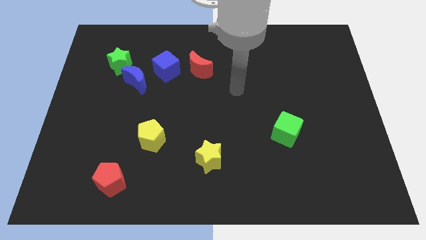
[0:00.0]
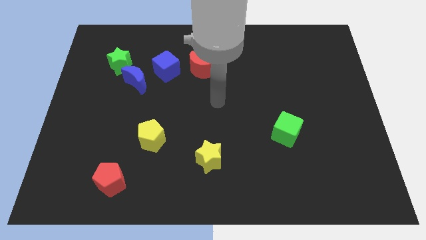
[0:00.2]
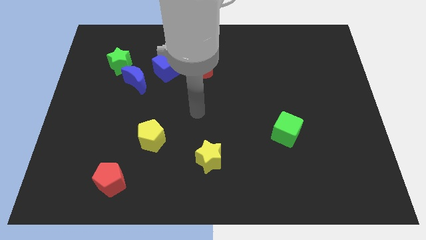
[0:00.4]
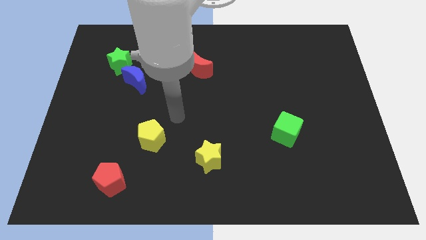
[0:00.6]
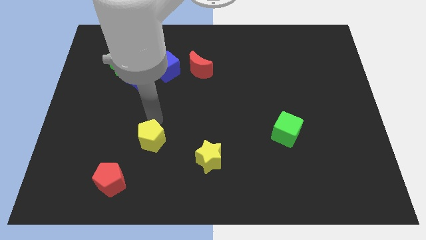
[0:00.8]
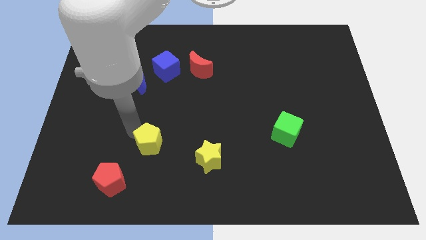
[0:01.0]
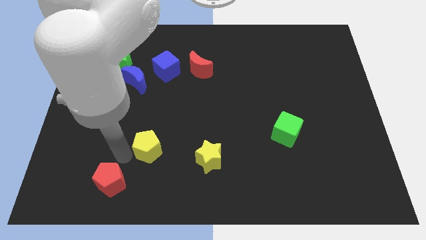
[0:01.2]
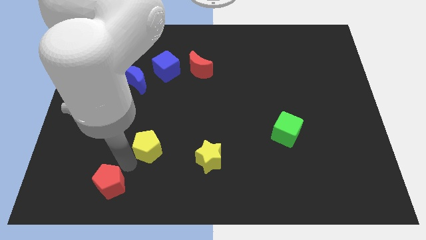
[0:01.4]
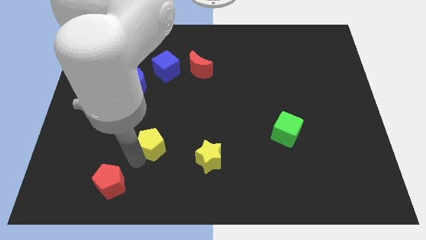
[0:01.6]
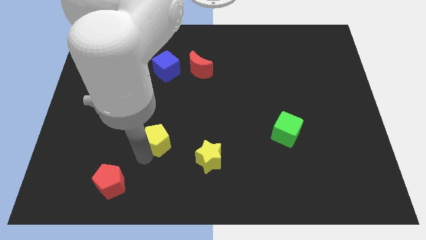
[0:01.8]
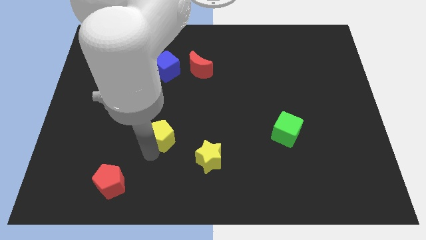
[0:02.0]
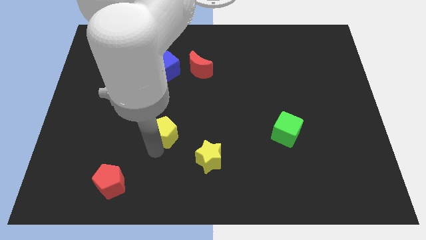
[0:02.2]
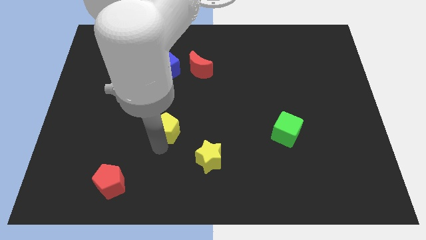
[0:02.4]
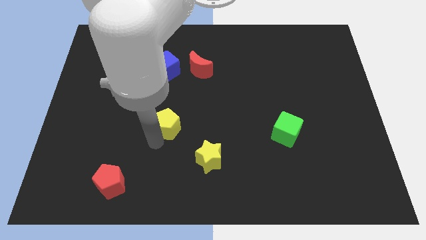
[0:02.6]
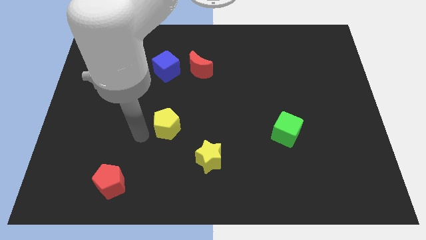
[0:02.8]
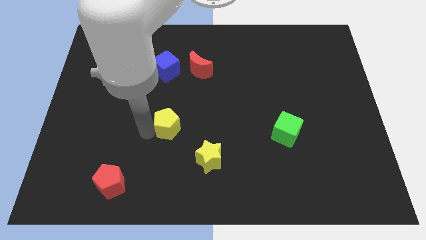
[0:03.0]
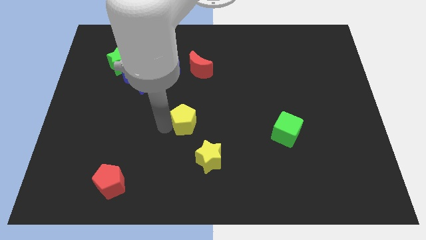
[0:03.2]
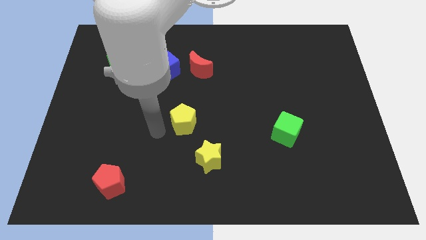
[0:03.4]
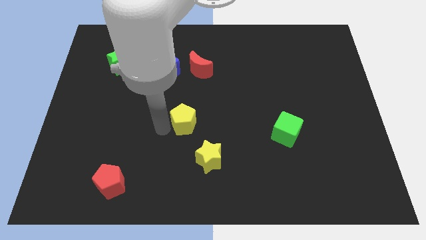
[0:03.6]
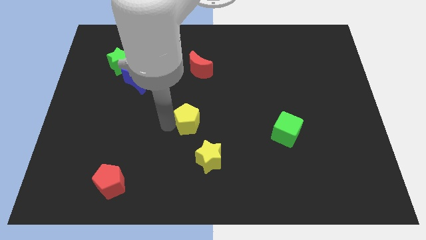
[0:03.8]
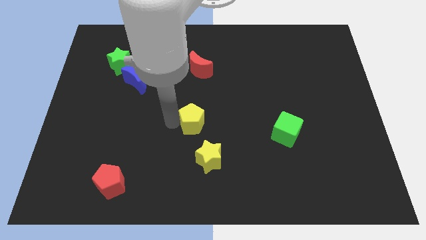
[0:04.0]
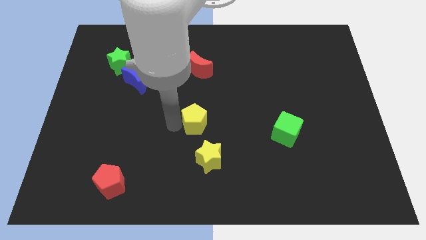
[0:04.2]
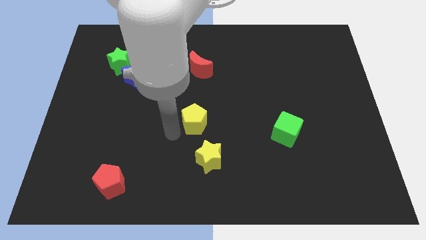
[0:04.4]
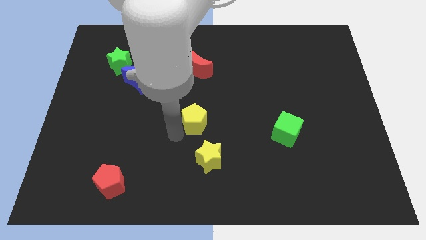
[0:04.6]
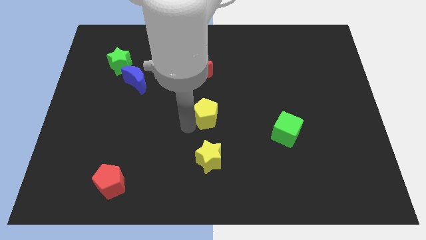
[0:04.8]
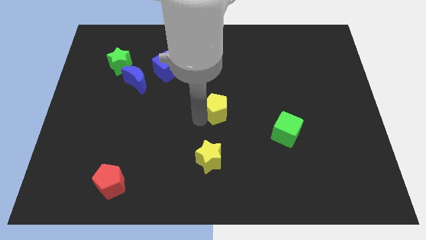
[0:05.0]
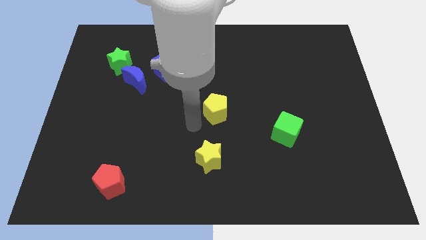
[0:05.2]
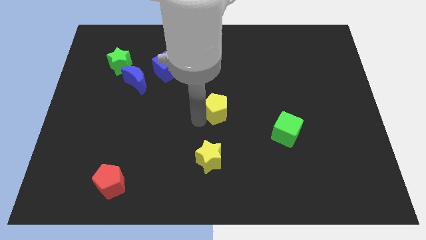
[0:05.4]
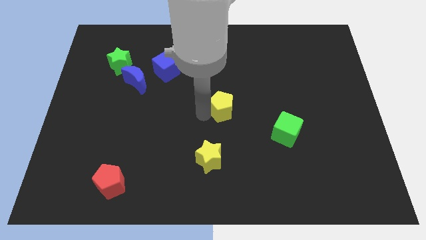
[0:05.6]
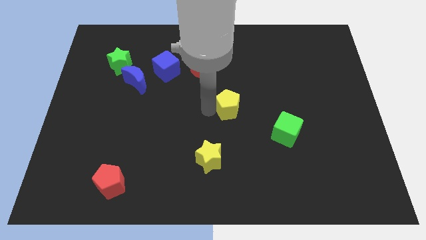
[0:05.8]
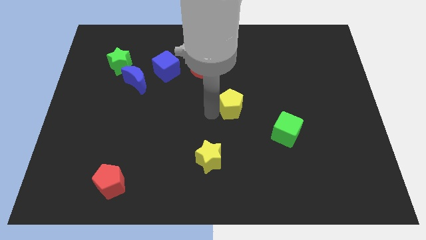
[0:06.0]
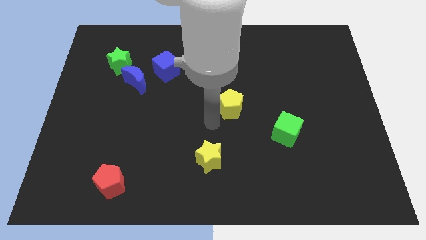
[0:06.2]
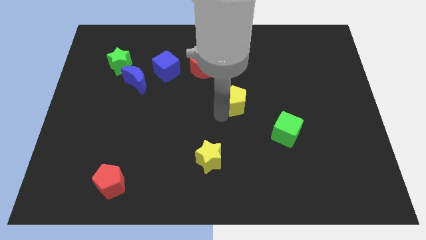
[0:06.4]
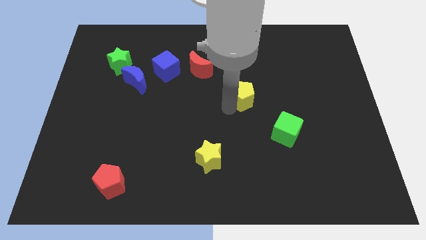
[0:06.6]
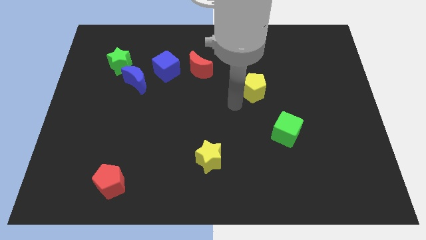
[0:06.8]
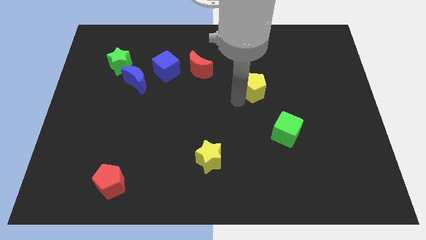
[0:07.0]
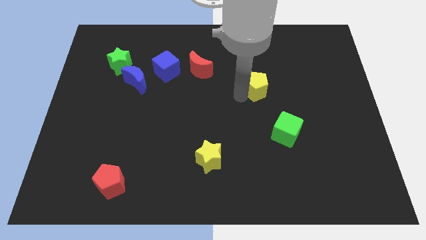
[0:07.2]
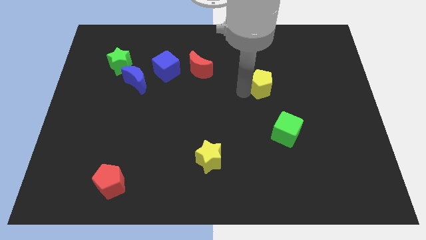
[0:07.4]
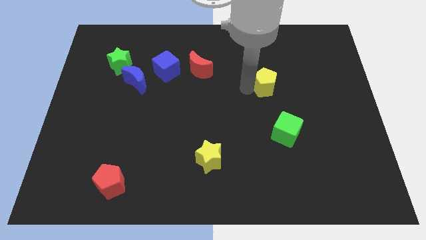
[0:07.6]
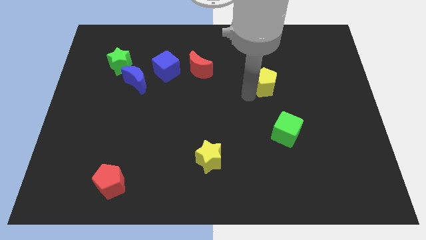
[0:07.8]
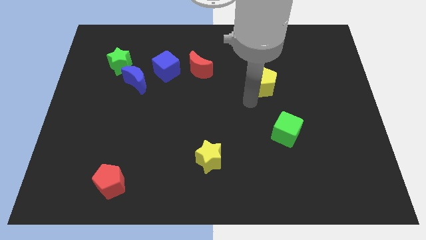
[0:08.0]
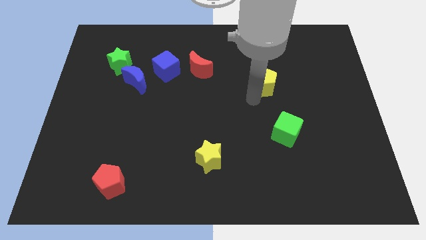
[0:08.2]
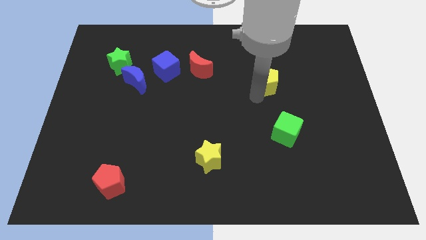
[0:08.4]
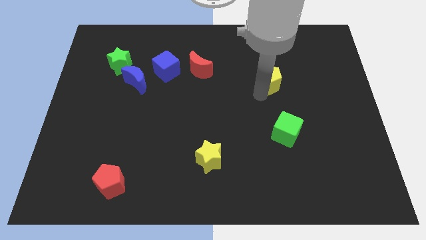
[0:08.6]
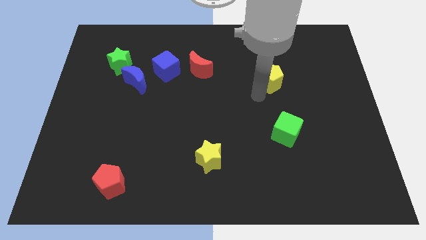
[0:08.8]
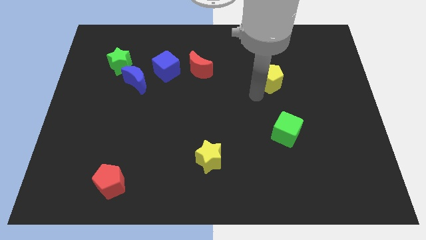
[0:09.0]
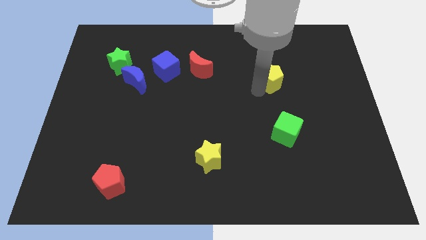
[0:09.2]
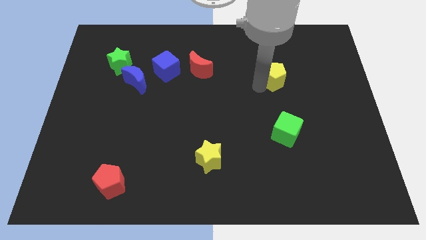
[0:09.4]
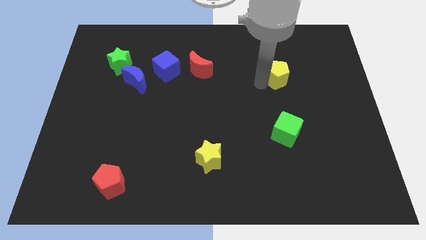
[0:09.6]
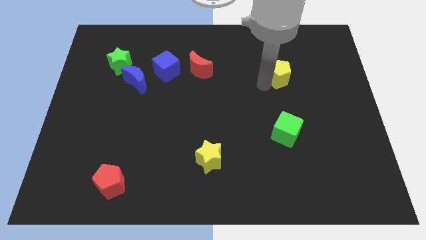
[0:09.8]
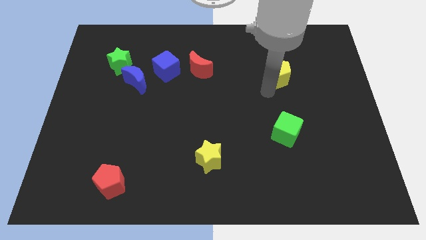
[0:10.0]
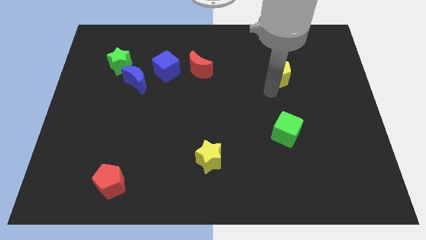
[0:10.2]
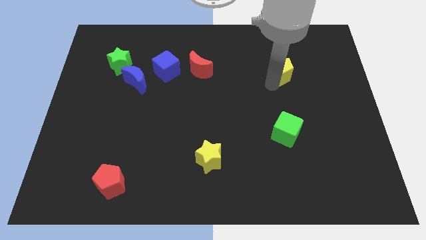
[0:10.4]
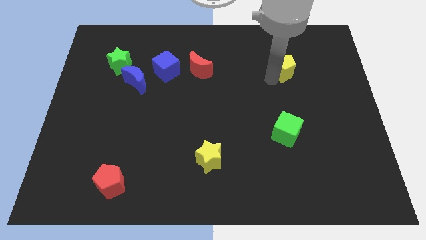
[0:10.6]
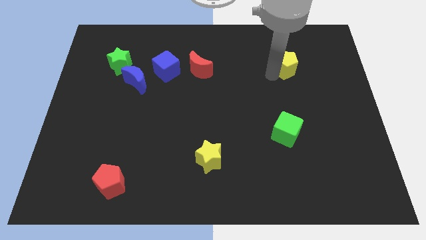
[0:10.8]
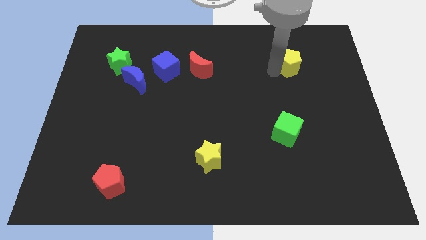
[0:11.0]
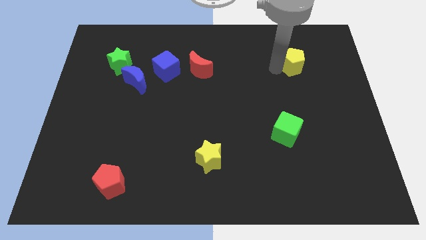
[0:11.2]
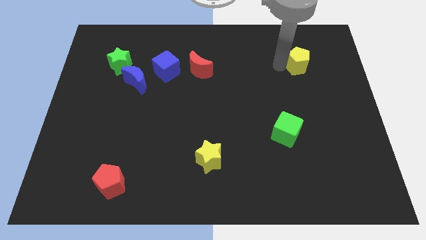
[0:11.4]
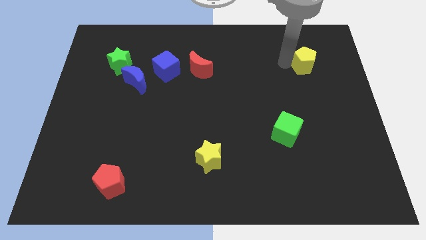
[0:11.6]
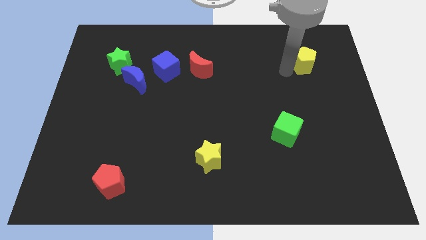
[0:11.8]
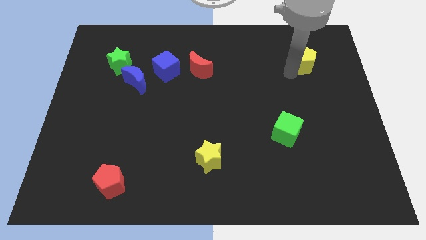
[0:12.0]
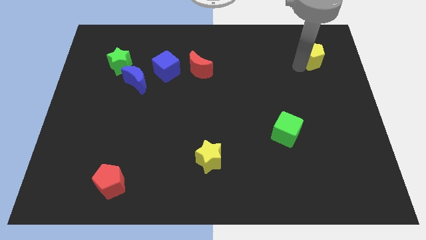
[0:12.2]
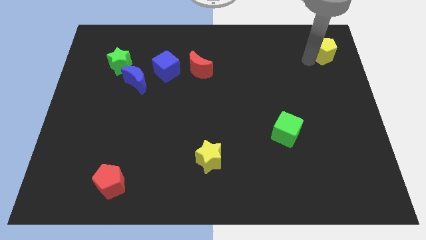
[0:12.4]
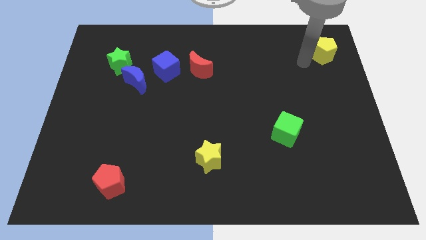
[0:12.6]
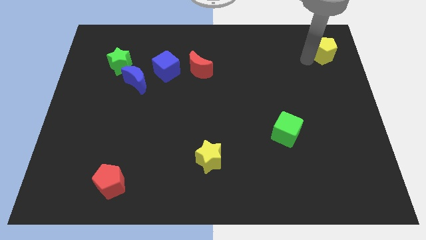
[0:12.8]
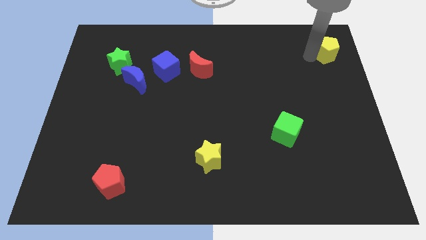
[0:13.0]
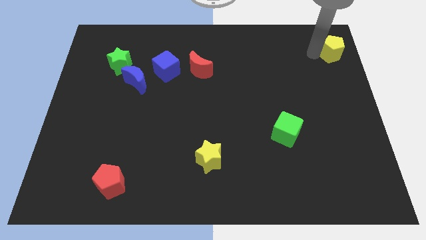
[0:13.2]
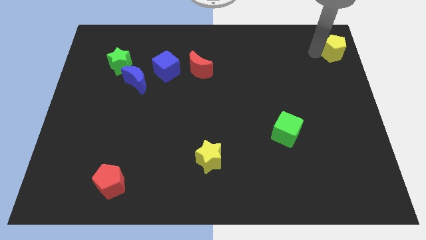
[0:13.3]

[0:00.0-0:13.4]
put the yellow pentagon to the top right corner
